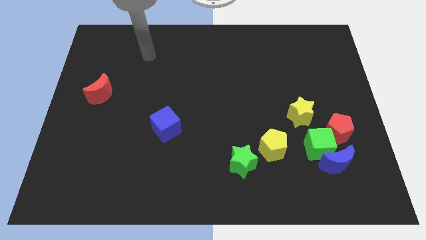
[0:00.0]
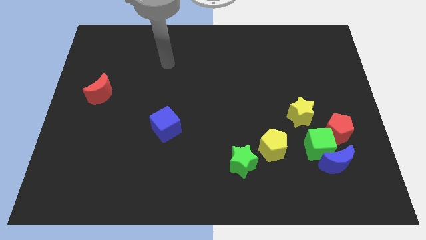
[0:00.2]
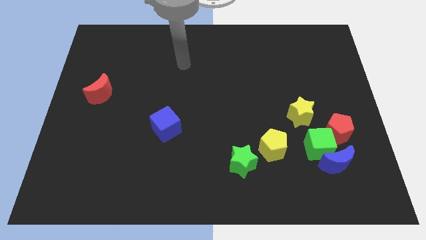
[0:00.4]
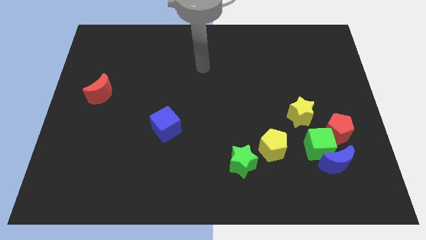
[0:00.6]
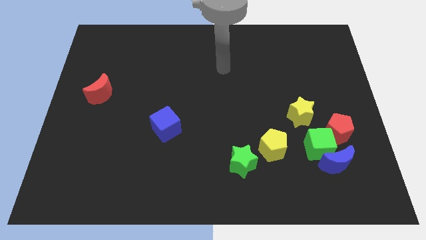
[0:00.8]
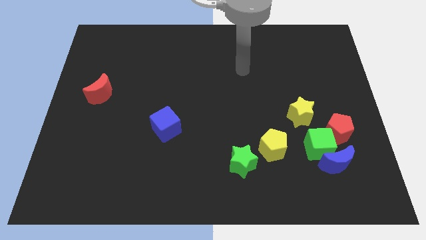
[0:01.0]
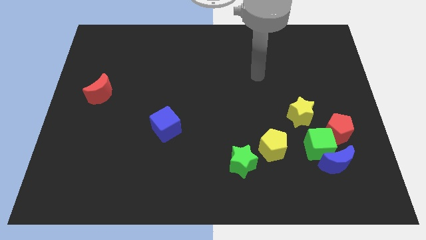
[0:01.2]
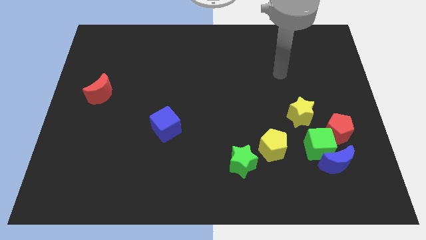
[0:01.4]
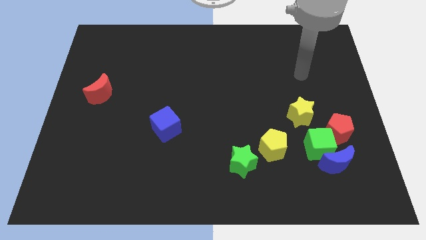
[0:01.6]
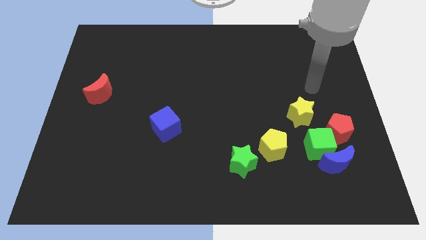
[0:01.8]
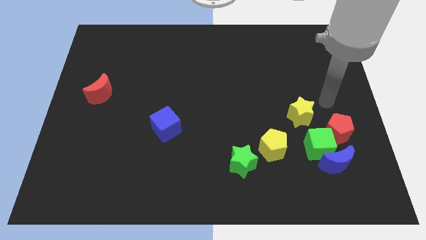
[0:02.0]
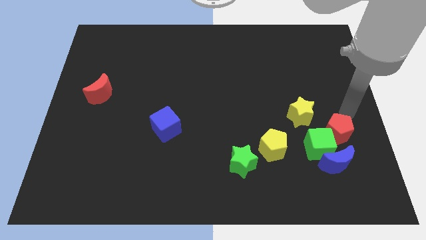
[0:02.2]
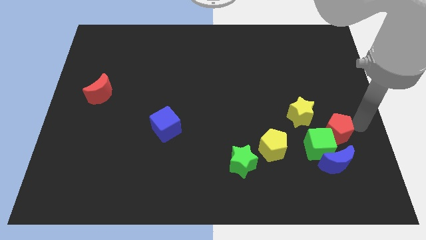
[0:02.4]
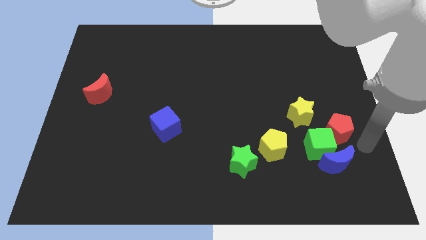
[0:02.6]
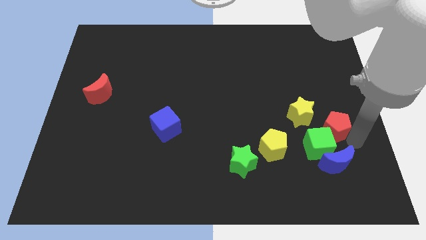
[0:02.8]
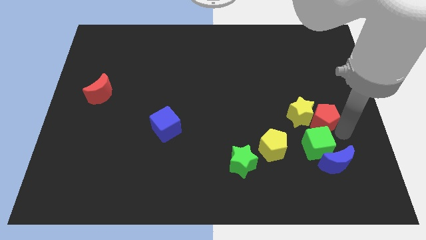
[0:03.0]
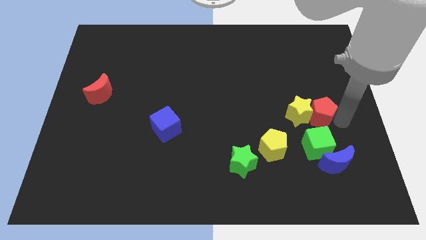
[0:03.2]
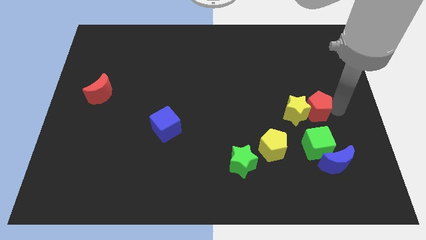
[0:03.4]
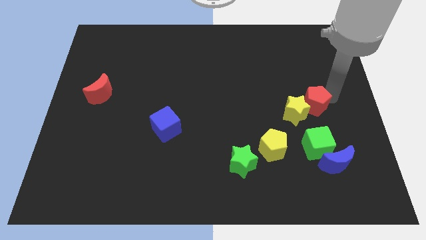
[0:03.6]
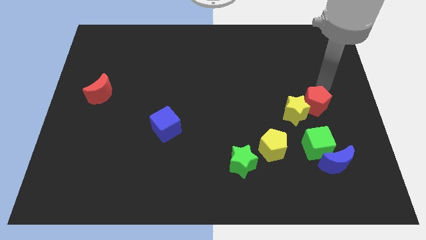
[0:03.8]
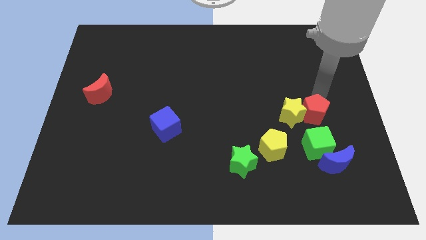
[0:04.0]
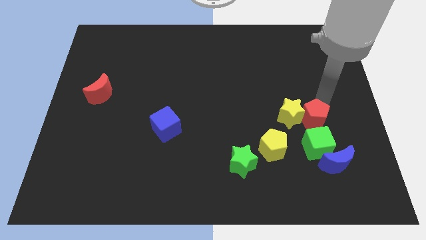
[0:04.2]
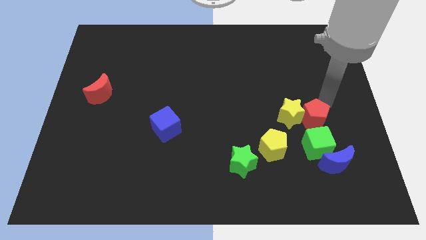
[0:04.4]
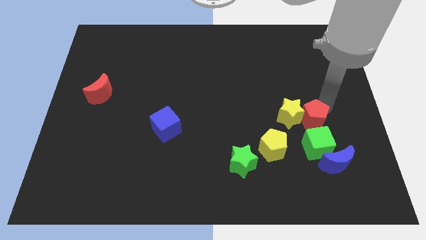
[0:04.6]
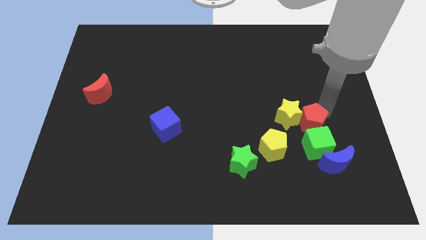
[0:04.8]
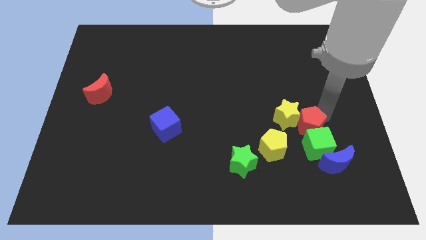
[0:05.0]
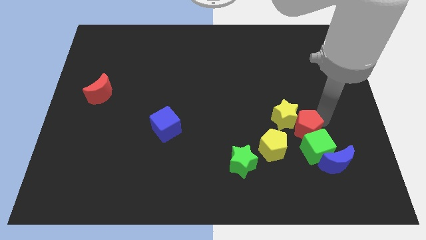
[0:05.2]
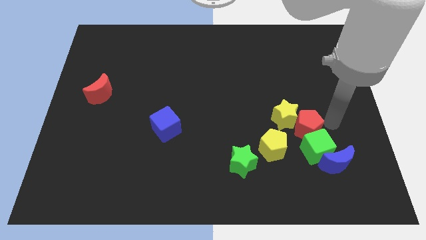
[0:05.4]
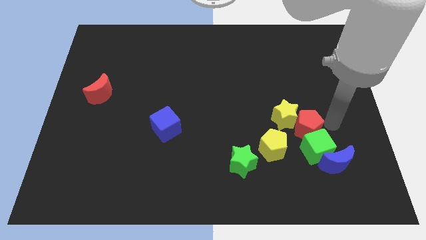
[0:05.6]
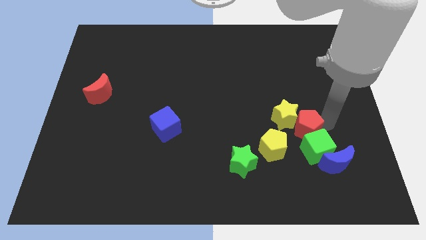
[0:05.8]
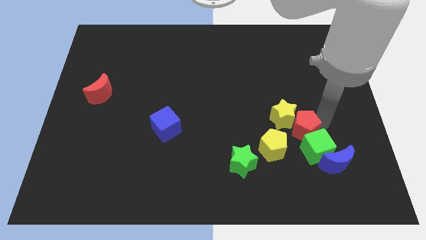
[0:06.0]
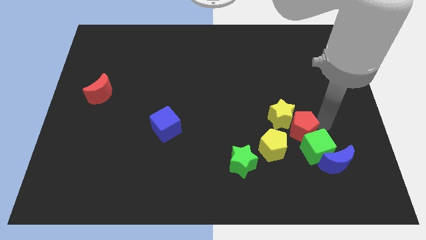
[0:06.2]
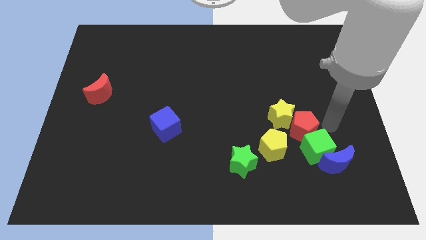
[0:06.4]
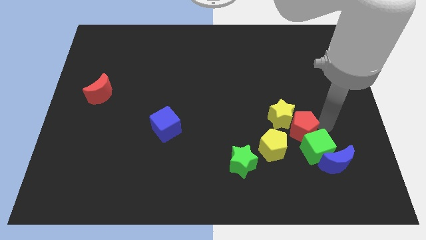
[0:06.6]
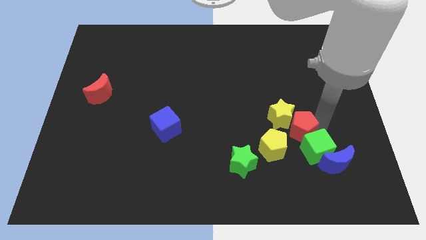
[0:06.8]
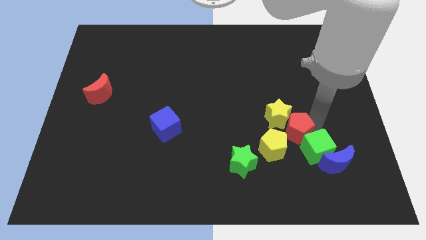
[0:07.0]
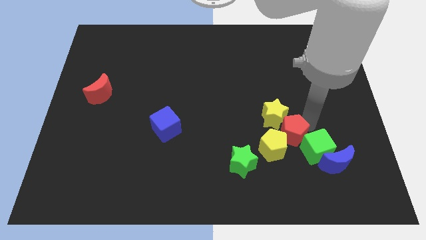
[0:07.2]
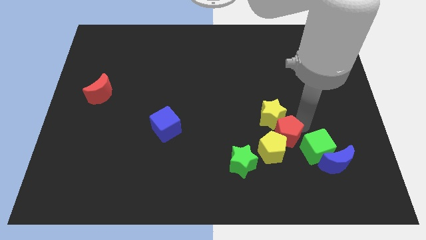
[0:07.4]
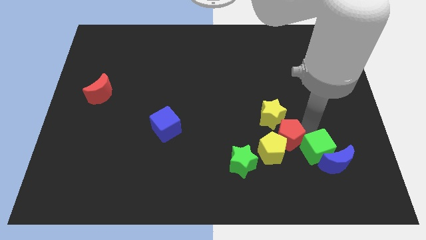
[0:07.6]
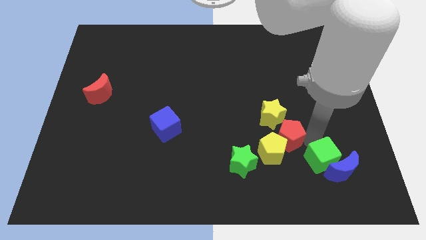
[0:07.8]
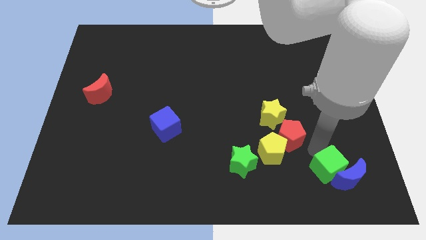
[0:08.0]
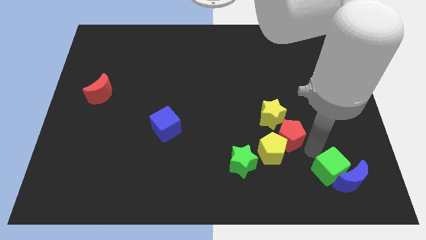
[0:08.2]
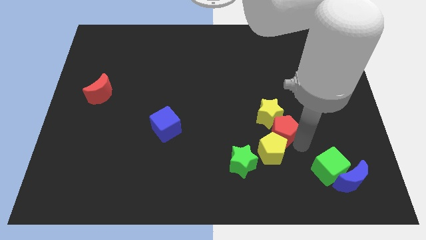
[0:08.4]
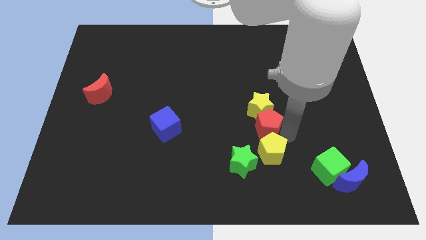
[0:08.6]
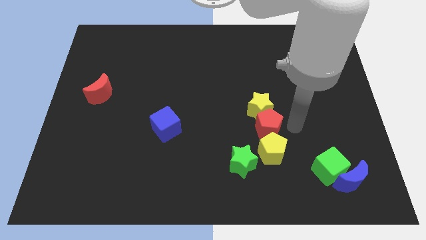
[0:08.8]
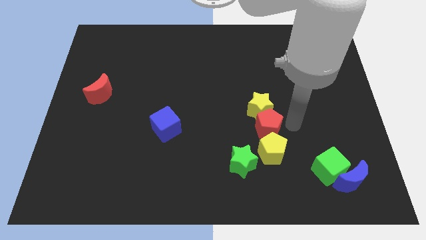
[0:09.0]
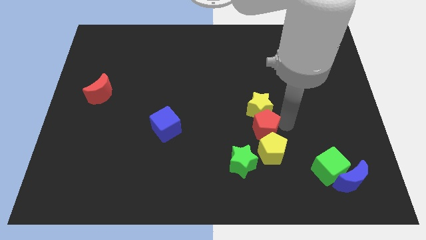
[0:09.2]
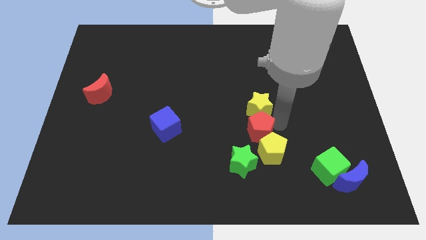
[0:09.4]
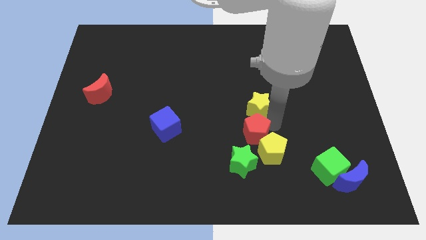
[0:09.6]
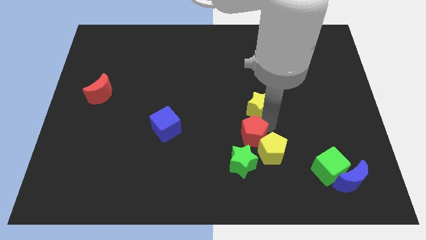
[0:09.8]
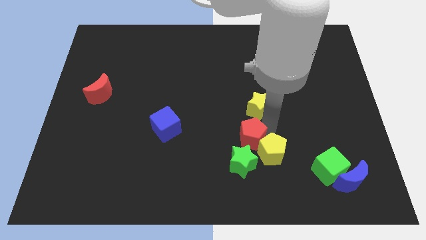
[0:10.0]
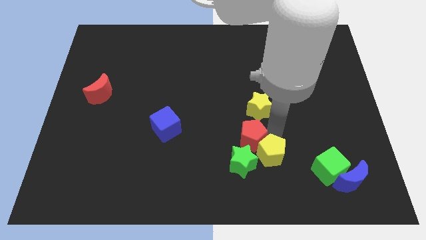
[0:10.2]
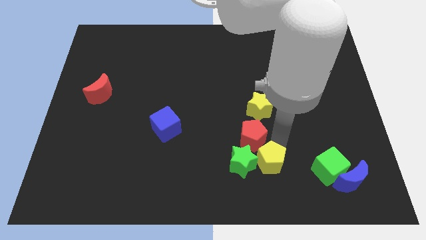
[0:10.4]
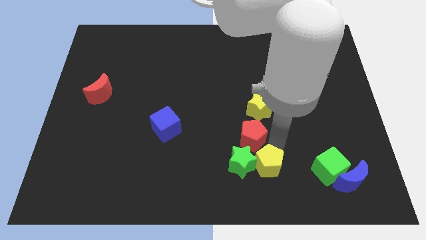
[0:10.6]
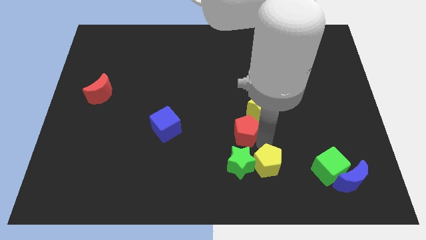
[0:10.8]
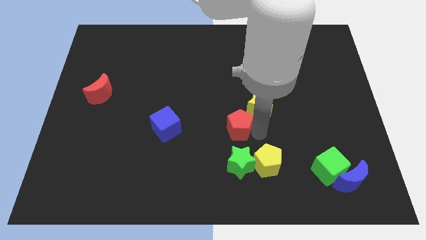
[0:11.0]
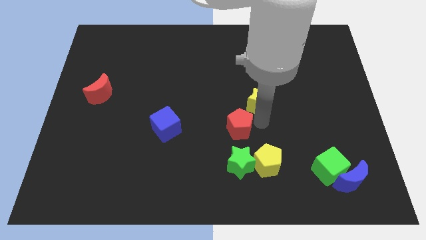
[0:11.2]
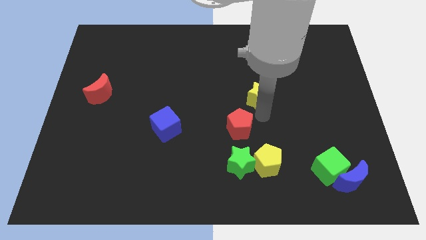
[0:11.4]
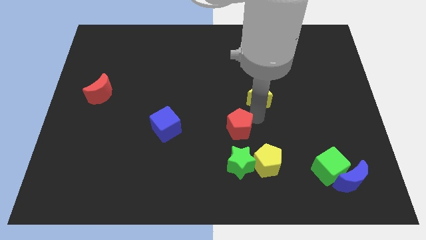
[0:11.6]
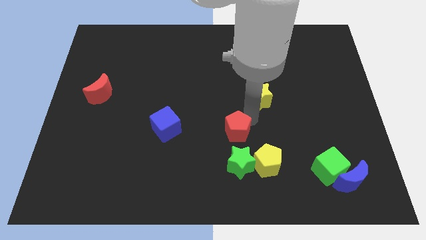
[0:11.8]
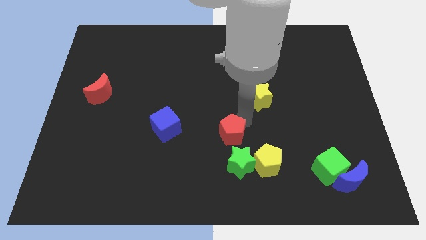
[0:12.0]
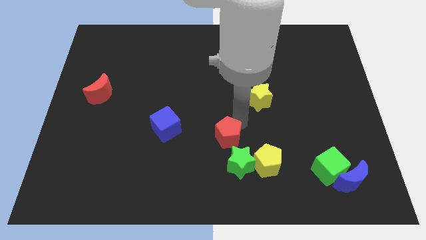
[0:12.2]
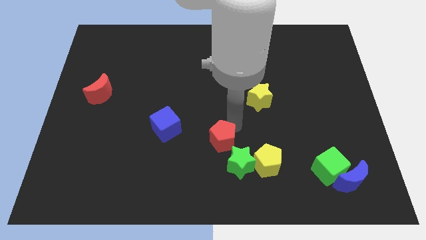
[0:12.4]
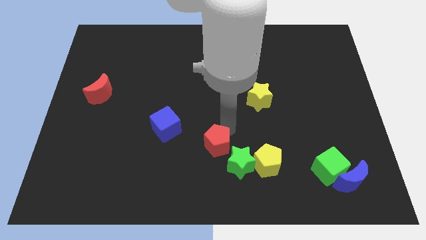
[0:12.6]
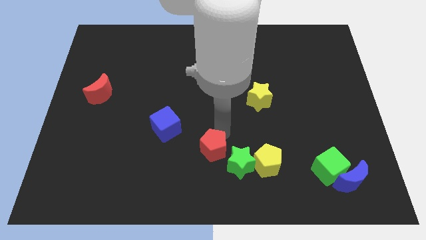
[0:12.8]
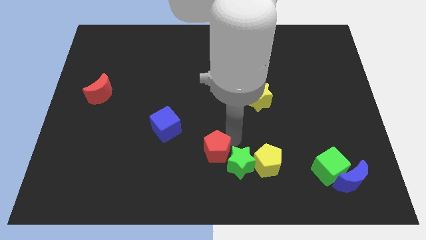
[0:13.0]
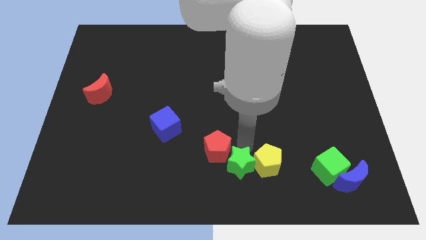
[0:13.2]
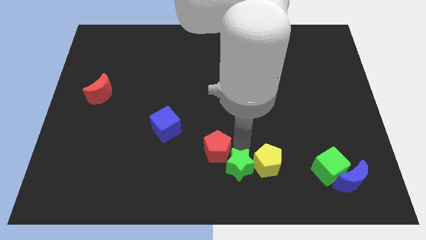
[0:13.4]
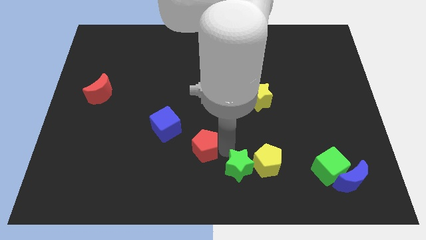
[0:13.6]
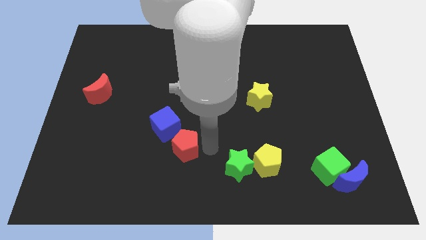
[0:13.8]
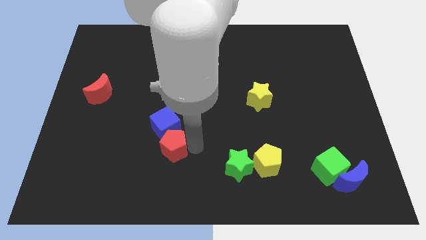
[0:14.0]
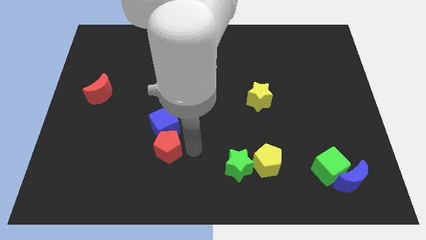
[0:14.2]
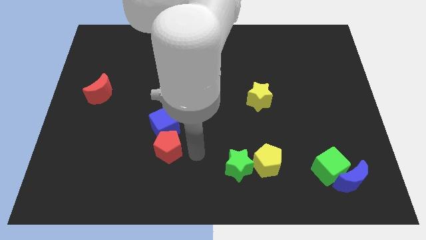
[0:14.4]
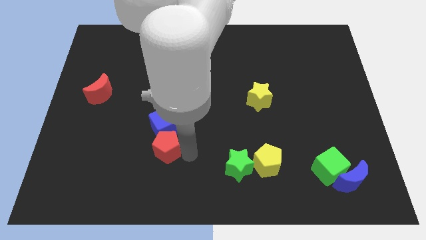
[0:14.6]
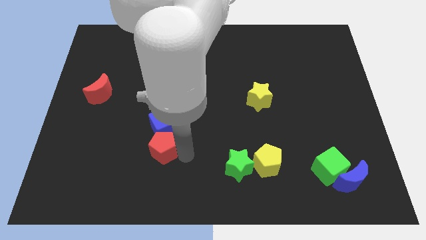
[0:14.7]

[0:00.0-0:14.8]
put the red pentagon to the bottom left of the blue cube

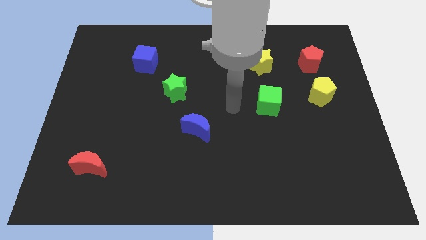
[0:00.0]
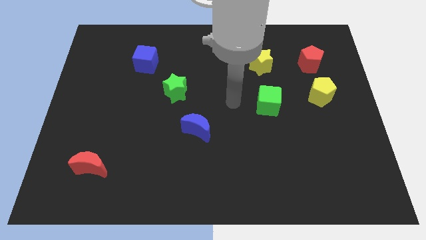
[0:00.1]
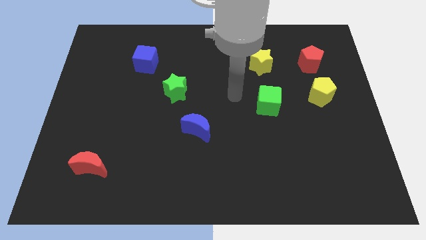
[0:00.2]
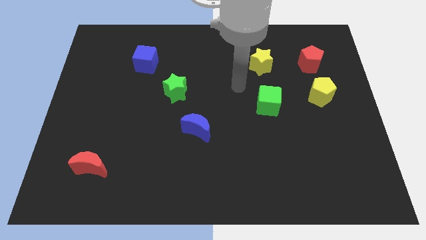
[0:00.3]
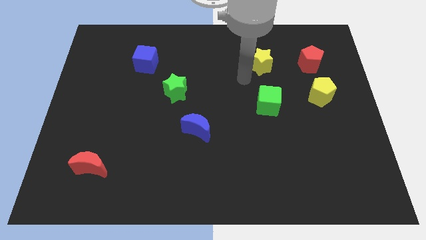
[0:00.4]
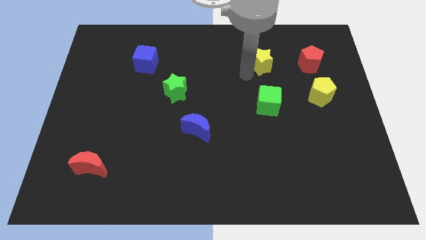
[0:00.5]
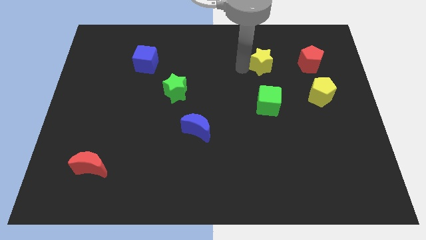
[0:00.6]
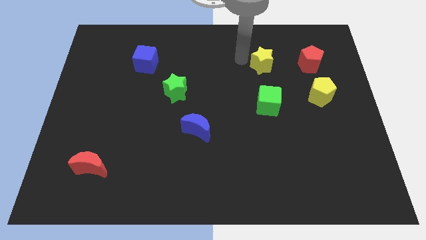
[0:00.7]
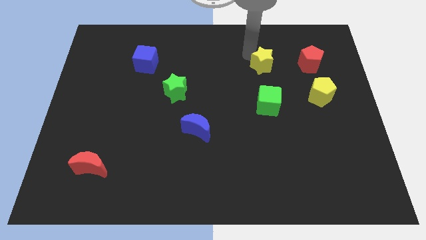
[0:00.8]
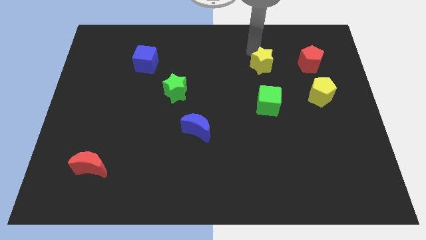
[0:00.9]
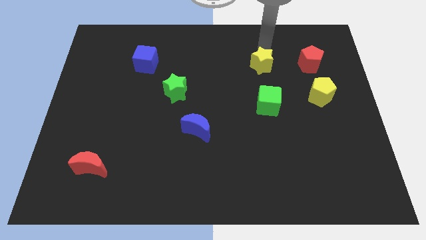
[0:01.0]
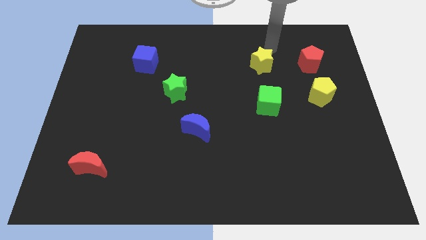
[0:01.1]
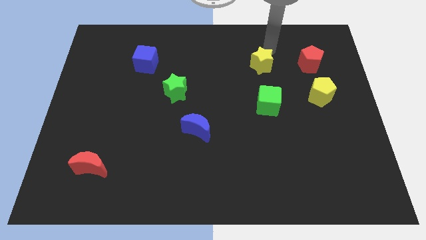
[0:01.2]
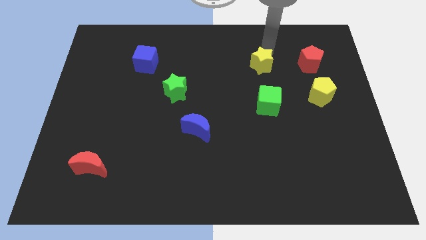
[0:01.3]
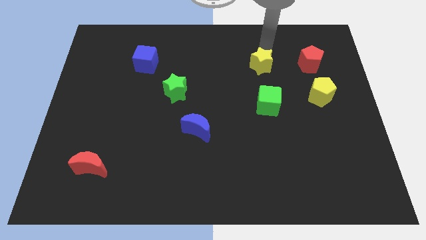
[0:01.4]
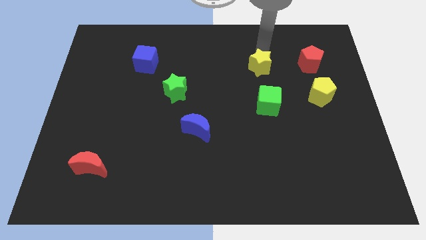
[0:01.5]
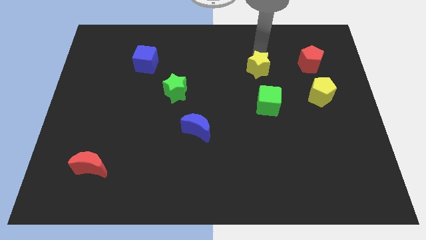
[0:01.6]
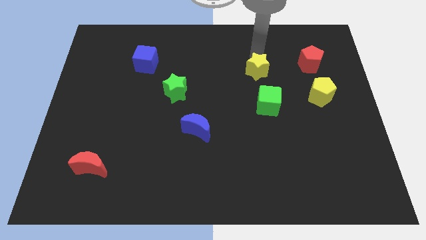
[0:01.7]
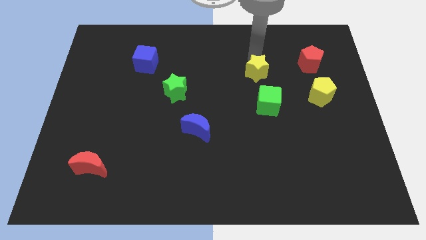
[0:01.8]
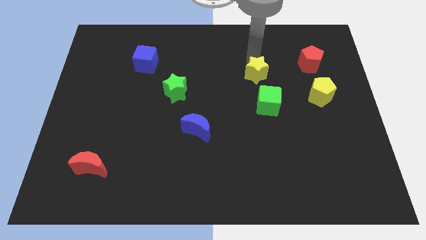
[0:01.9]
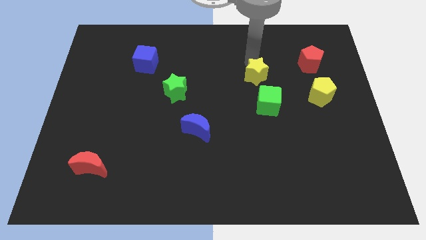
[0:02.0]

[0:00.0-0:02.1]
move the yellow star to the top left side of the green cube
